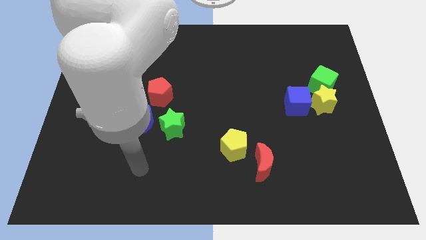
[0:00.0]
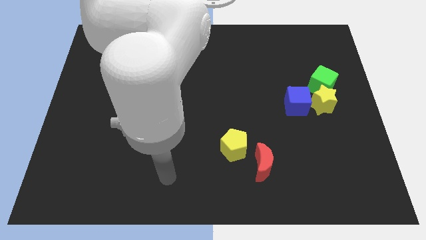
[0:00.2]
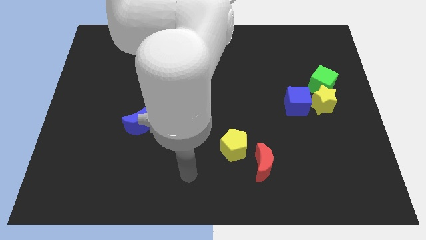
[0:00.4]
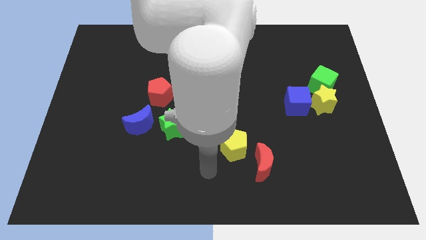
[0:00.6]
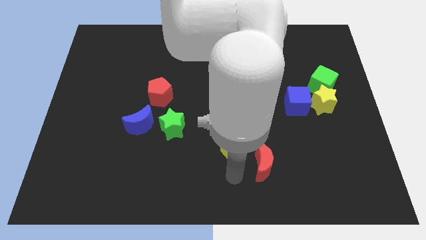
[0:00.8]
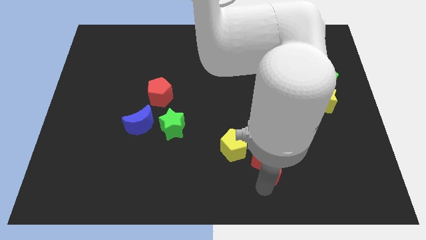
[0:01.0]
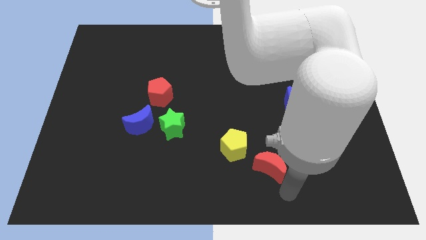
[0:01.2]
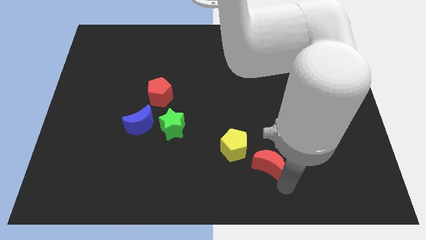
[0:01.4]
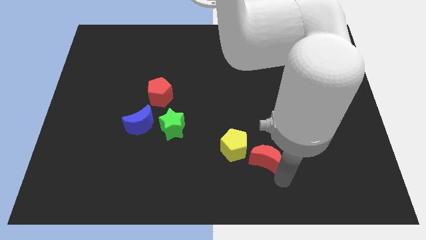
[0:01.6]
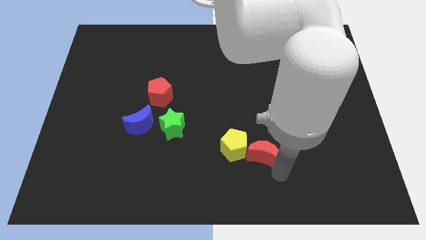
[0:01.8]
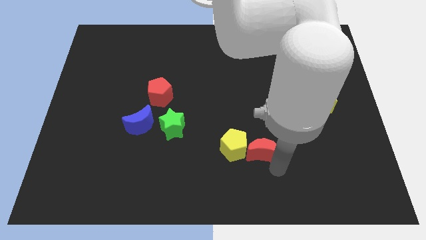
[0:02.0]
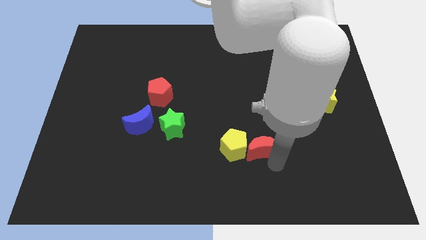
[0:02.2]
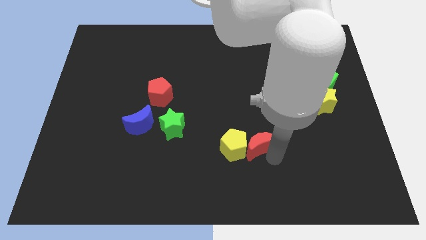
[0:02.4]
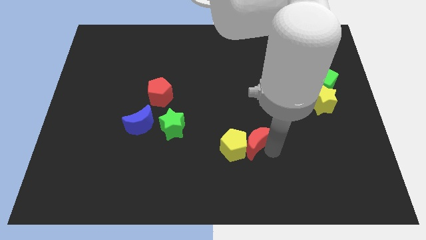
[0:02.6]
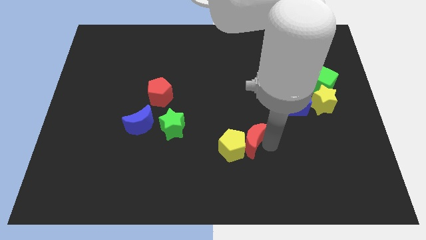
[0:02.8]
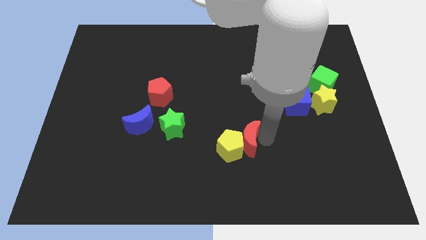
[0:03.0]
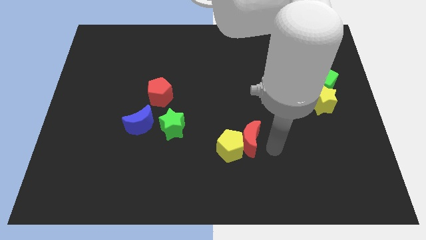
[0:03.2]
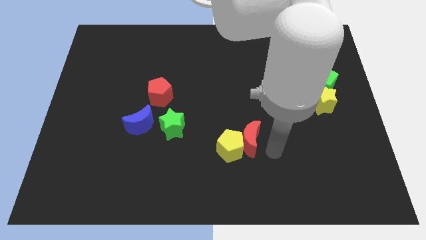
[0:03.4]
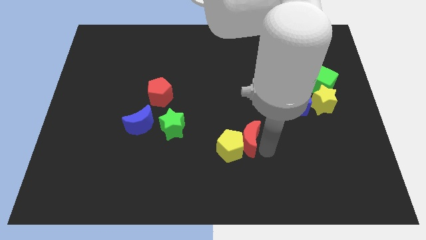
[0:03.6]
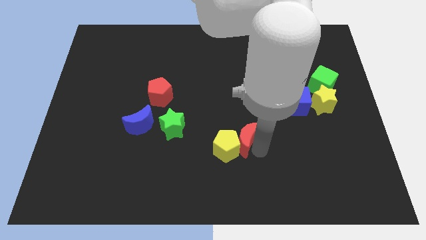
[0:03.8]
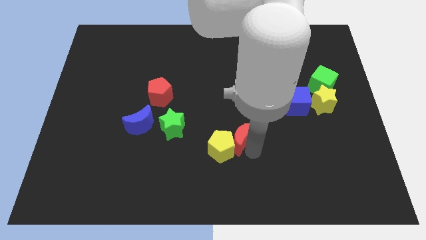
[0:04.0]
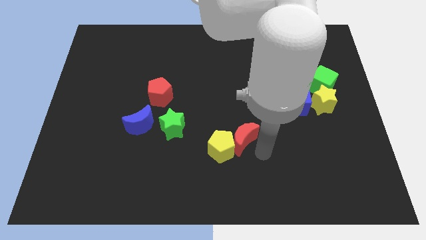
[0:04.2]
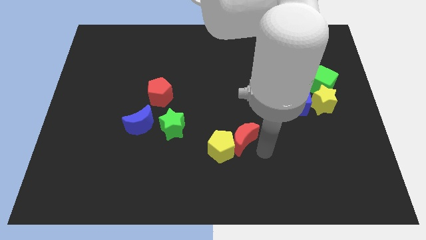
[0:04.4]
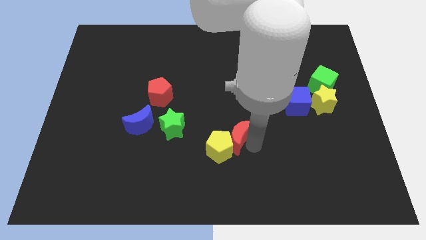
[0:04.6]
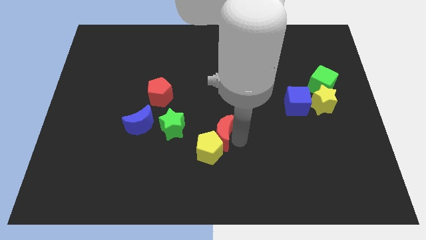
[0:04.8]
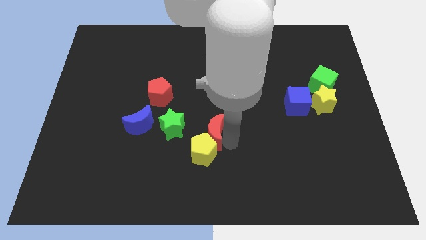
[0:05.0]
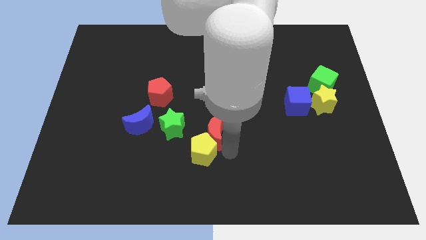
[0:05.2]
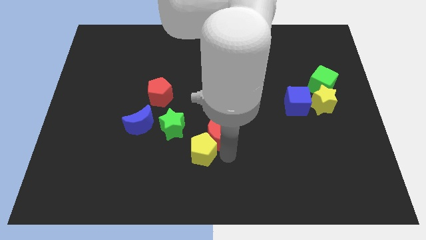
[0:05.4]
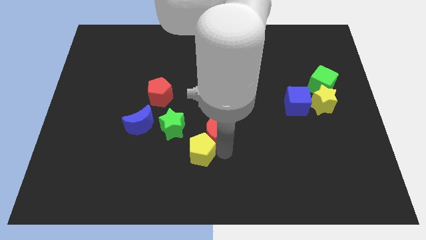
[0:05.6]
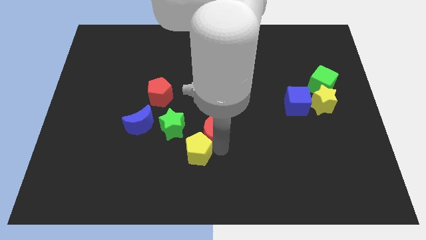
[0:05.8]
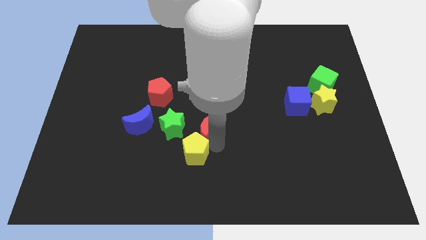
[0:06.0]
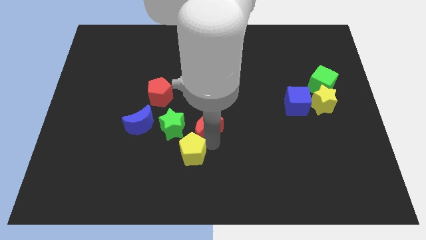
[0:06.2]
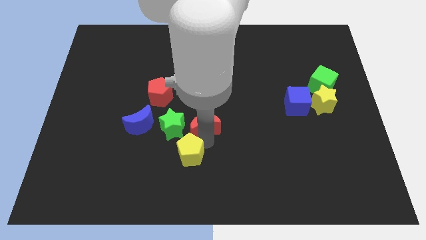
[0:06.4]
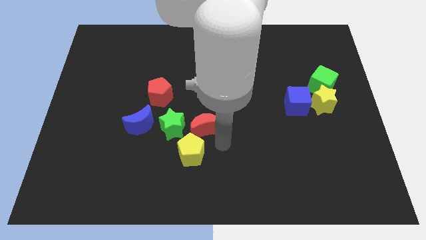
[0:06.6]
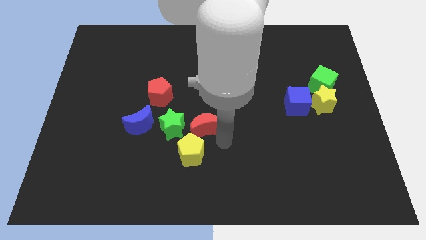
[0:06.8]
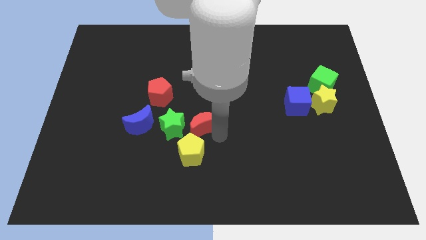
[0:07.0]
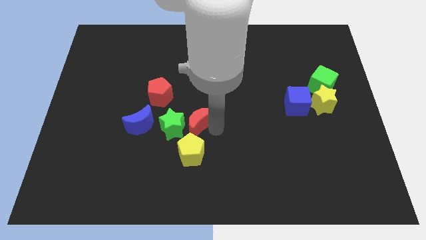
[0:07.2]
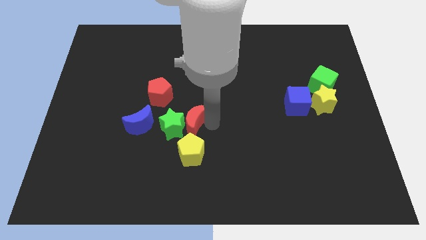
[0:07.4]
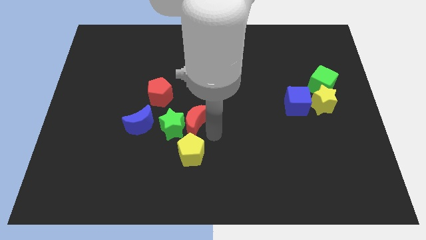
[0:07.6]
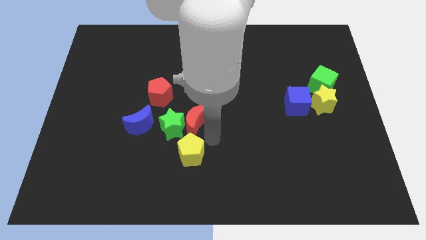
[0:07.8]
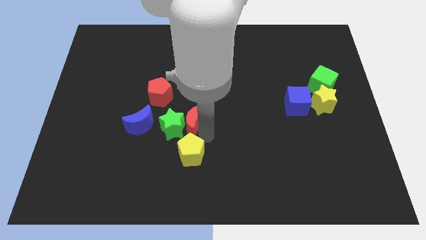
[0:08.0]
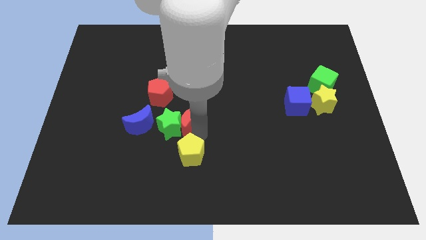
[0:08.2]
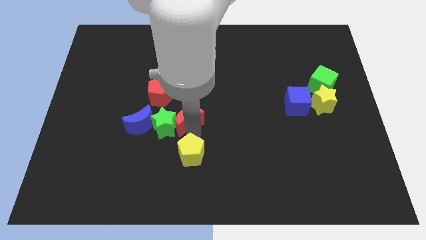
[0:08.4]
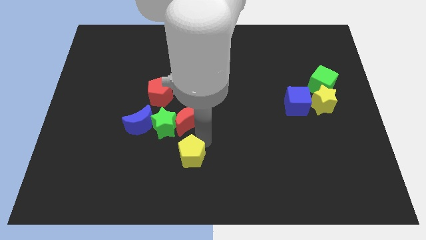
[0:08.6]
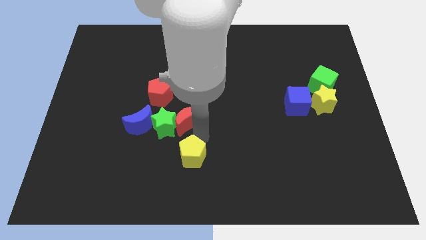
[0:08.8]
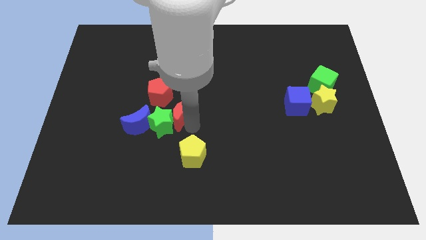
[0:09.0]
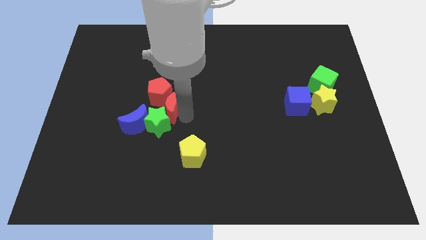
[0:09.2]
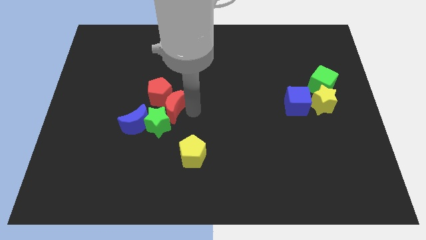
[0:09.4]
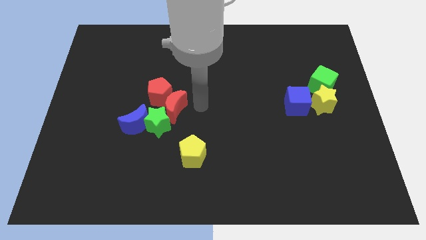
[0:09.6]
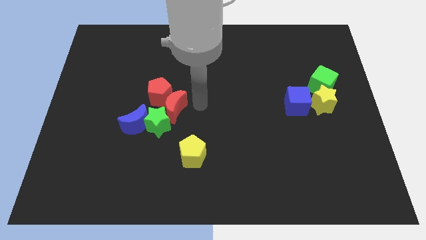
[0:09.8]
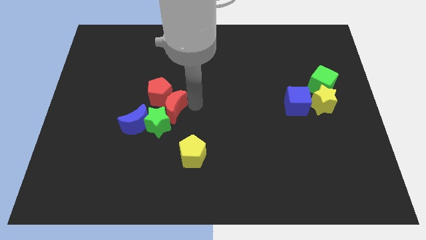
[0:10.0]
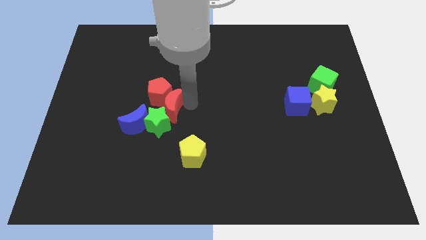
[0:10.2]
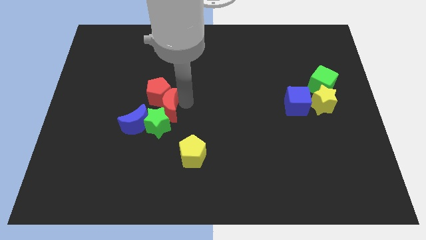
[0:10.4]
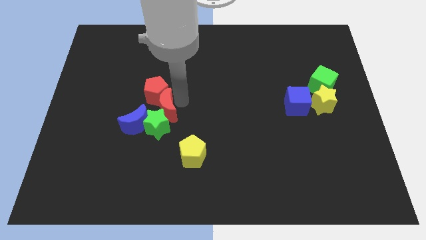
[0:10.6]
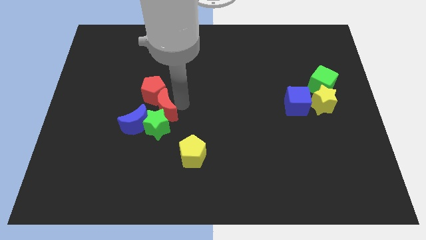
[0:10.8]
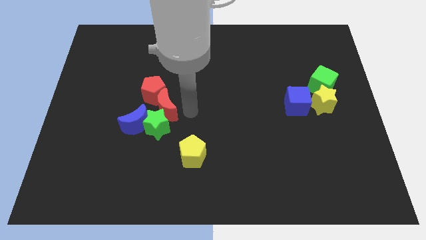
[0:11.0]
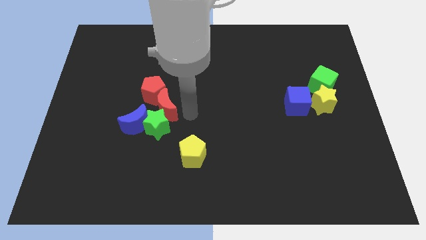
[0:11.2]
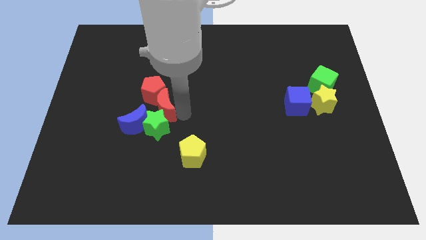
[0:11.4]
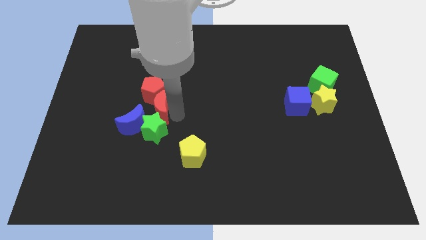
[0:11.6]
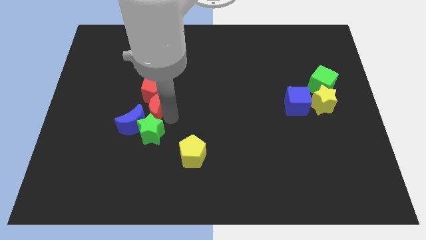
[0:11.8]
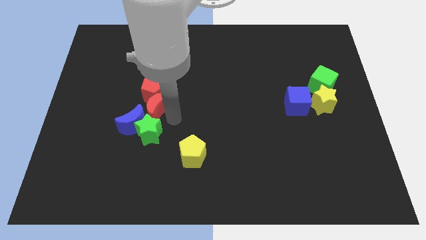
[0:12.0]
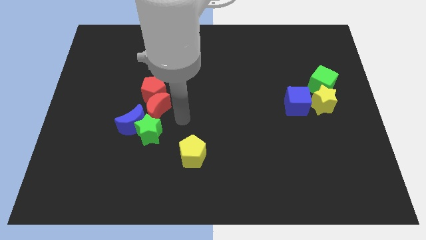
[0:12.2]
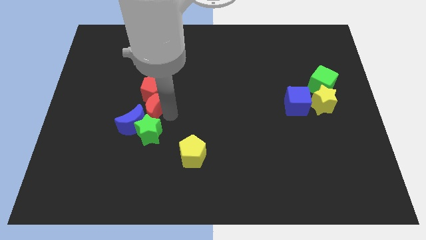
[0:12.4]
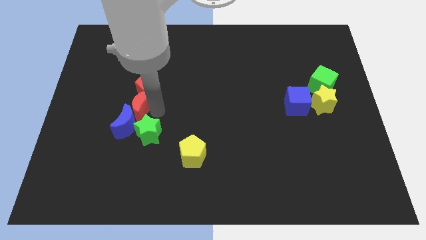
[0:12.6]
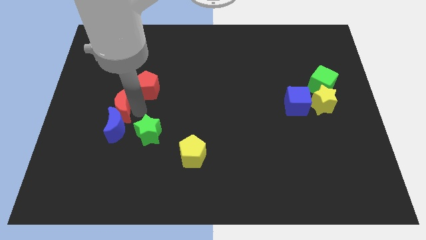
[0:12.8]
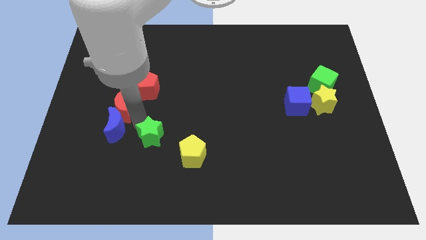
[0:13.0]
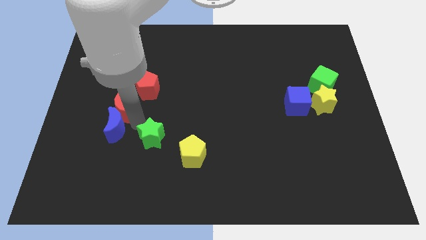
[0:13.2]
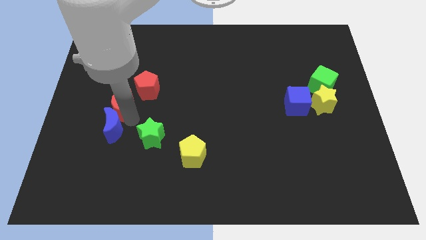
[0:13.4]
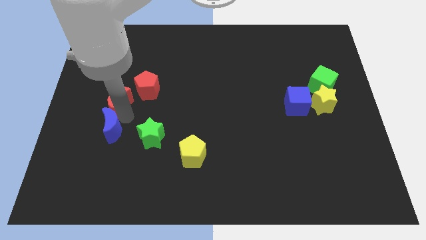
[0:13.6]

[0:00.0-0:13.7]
move the red moon to the left side of the red pentagon
